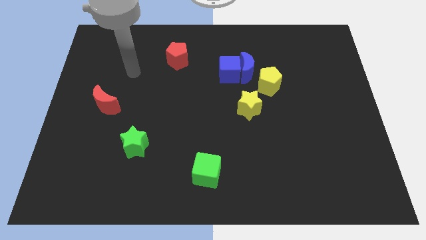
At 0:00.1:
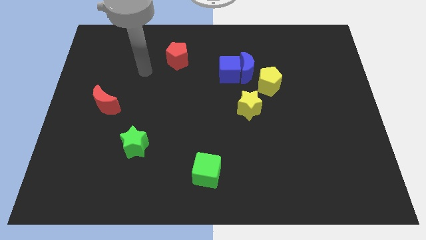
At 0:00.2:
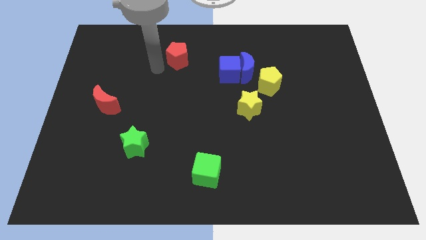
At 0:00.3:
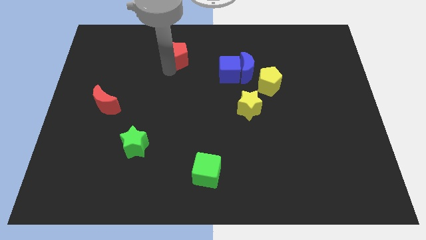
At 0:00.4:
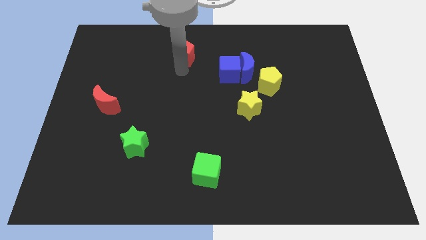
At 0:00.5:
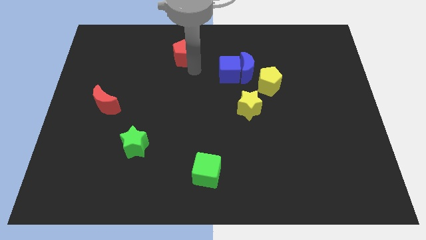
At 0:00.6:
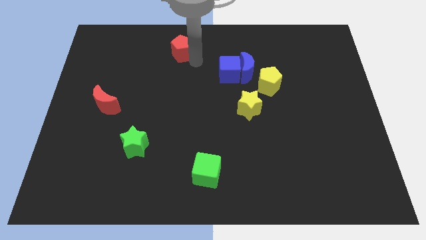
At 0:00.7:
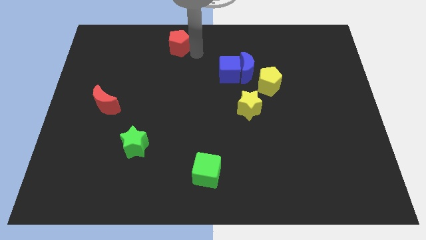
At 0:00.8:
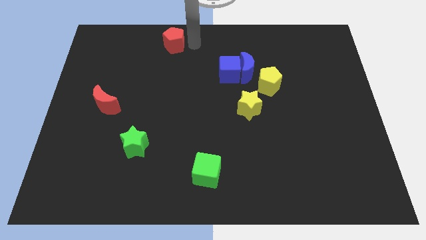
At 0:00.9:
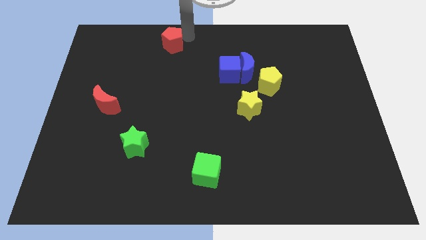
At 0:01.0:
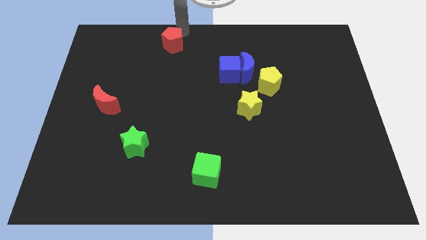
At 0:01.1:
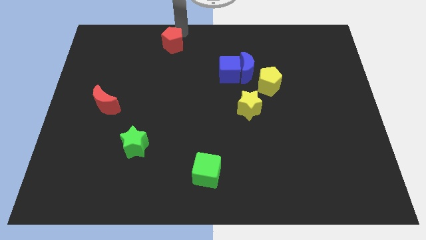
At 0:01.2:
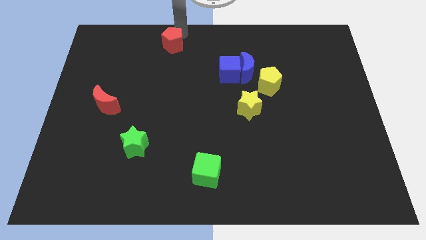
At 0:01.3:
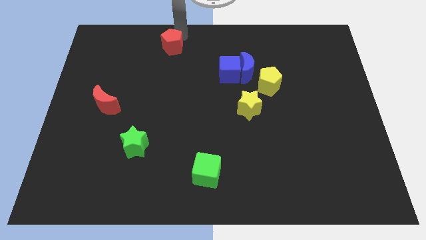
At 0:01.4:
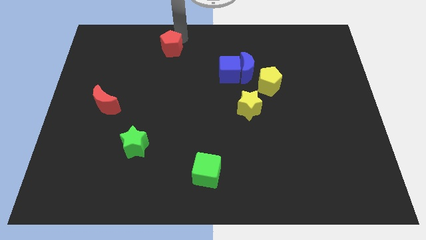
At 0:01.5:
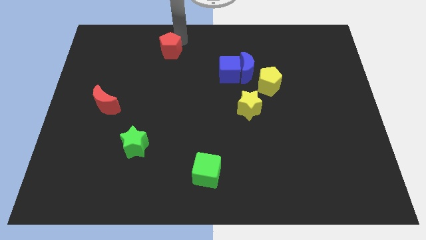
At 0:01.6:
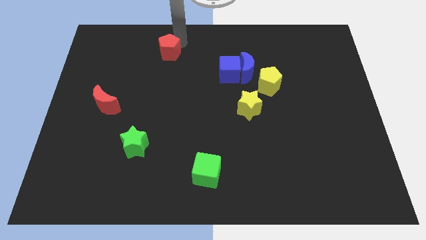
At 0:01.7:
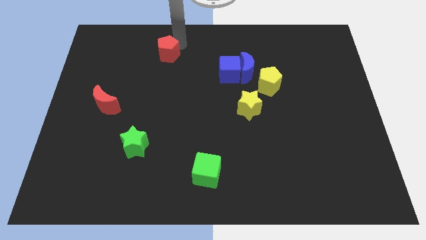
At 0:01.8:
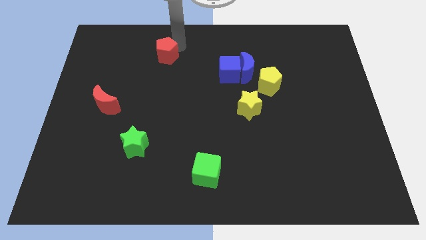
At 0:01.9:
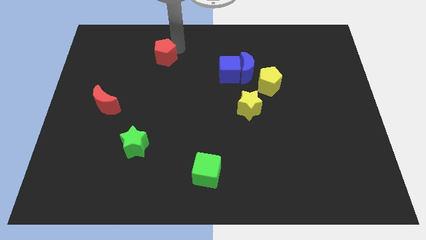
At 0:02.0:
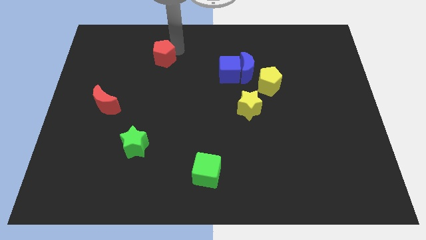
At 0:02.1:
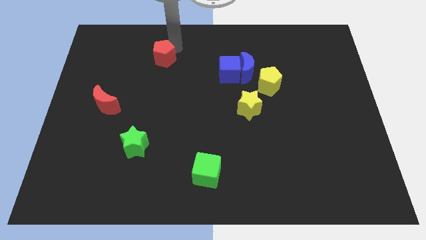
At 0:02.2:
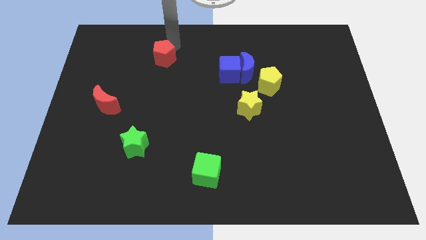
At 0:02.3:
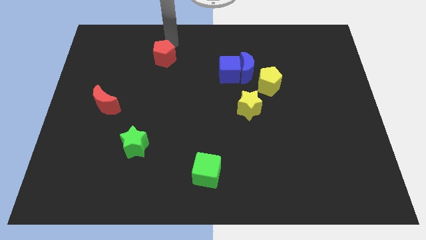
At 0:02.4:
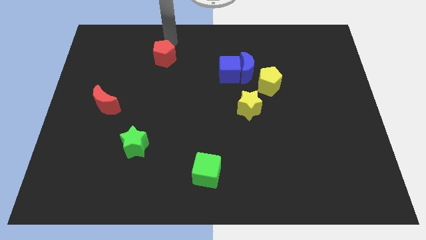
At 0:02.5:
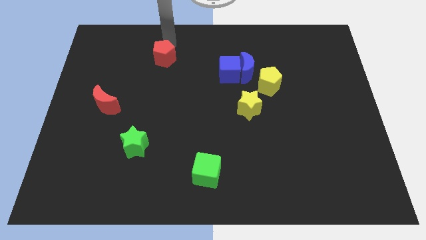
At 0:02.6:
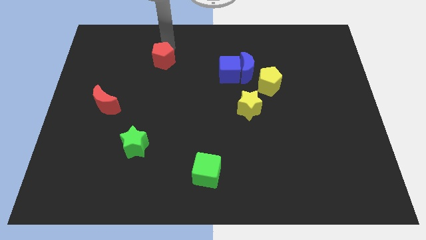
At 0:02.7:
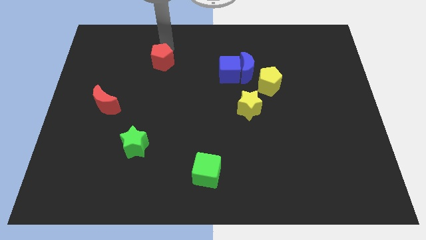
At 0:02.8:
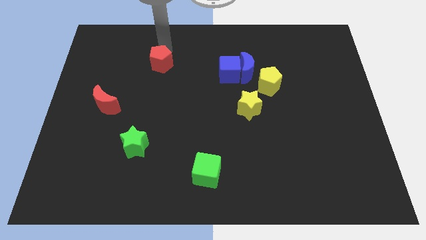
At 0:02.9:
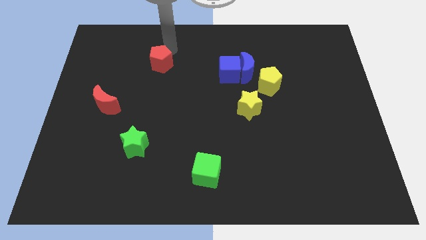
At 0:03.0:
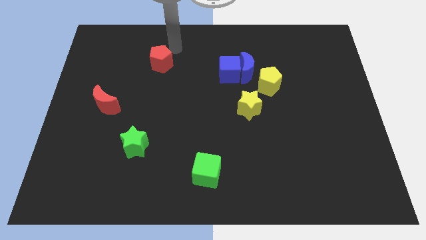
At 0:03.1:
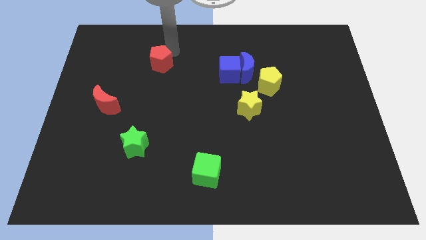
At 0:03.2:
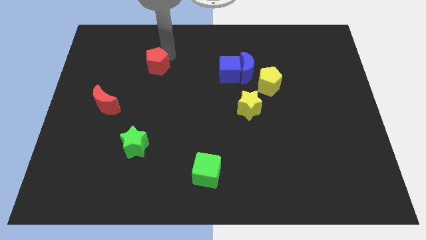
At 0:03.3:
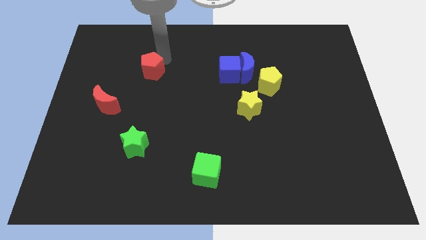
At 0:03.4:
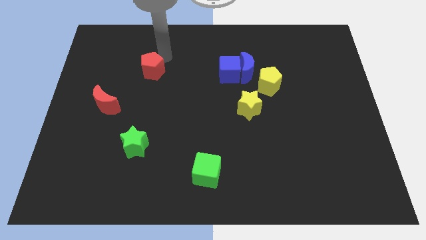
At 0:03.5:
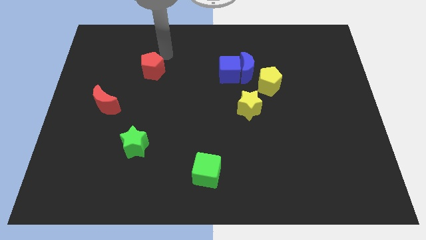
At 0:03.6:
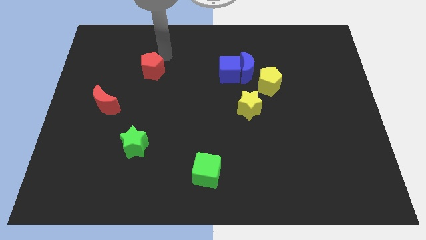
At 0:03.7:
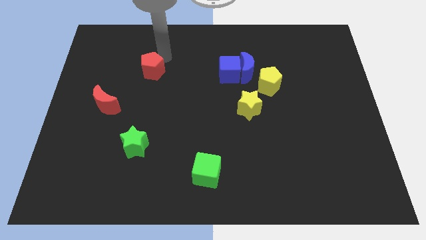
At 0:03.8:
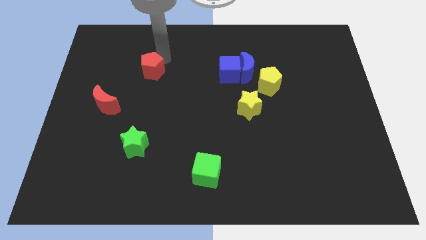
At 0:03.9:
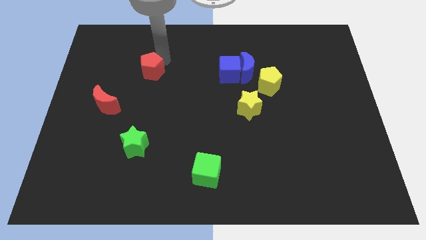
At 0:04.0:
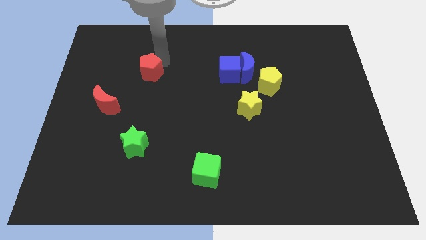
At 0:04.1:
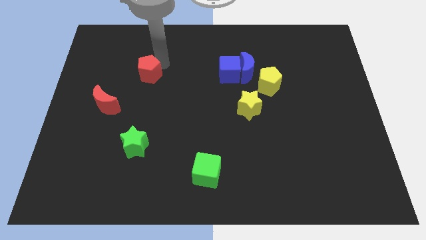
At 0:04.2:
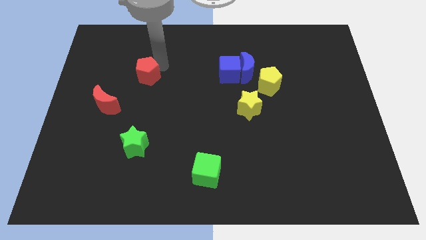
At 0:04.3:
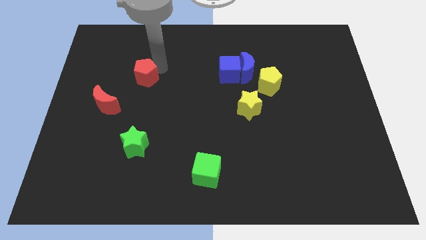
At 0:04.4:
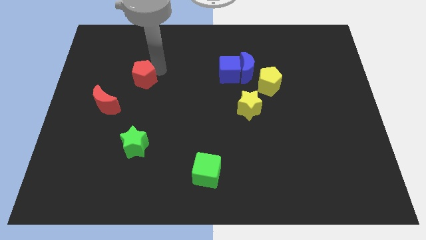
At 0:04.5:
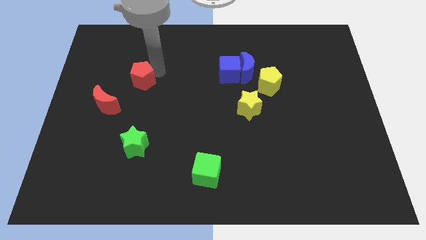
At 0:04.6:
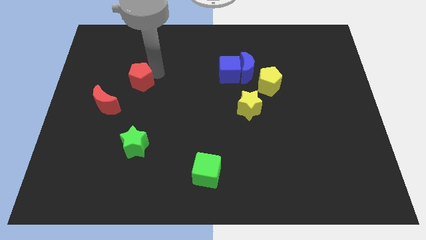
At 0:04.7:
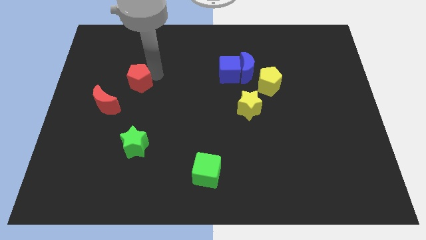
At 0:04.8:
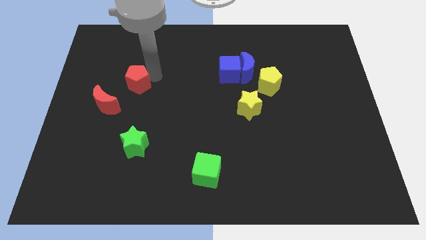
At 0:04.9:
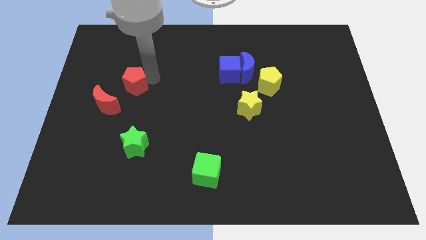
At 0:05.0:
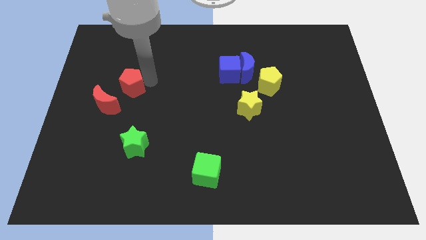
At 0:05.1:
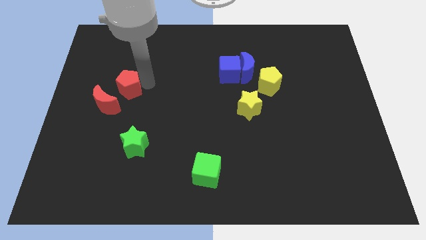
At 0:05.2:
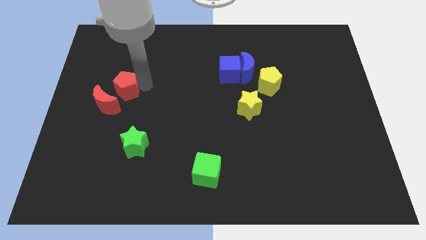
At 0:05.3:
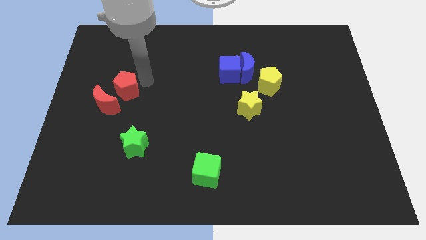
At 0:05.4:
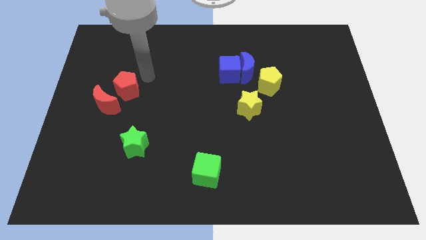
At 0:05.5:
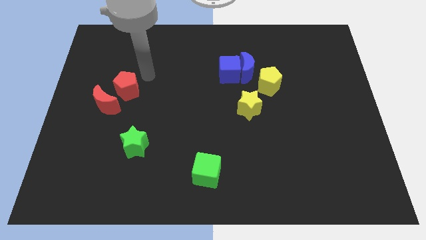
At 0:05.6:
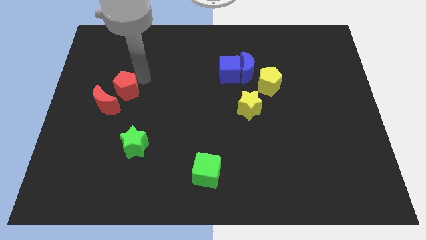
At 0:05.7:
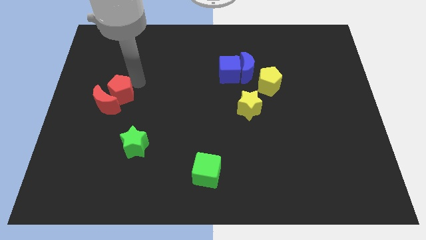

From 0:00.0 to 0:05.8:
push the red pentagon close to the red moon

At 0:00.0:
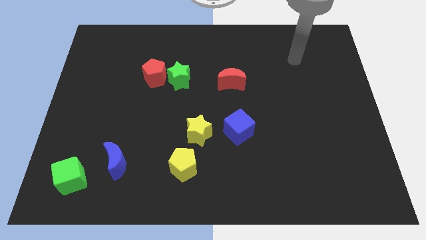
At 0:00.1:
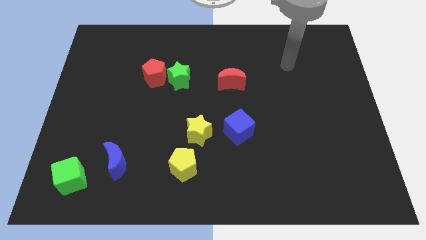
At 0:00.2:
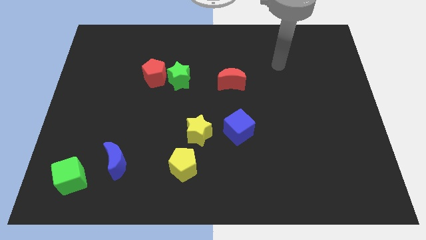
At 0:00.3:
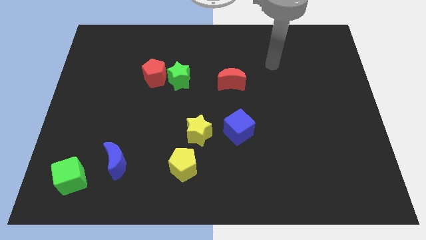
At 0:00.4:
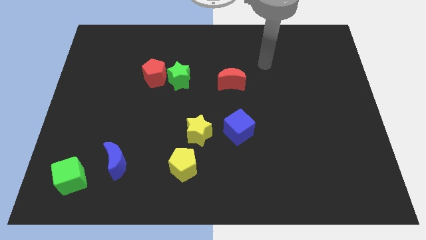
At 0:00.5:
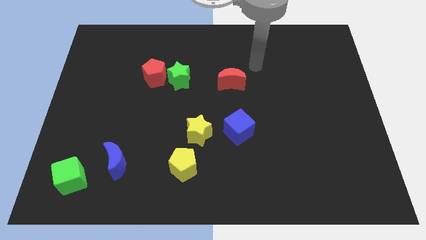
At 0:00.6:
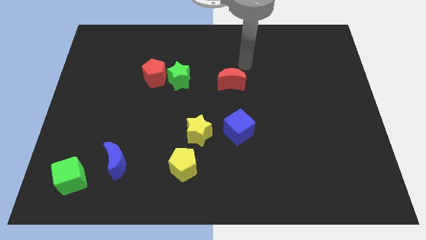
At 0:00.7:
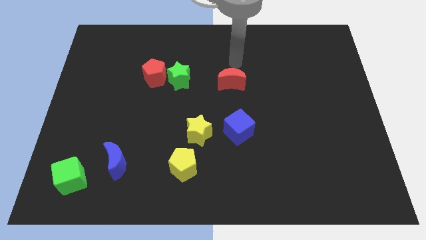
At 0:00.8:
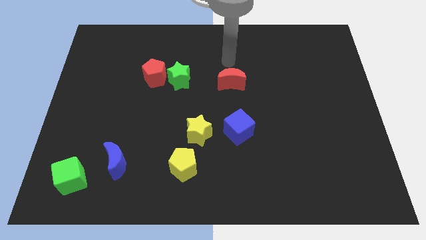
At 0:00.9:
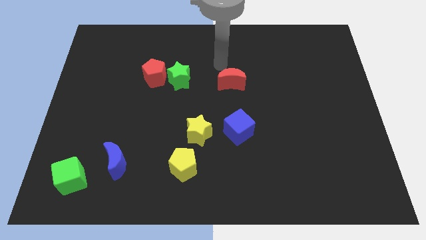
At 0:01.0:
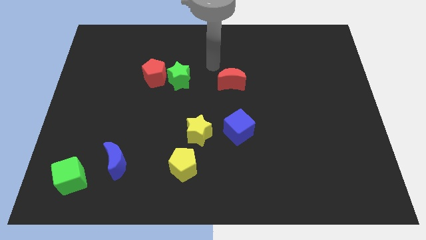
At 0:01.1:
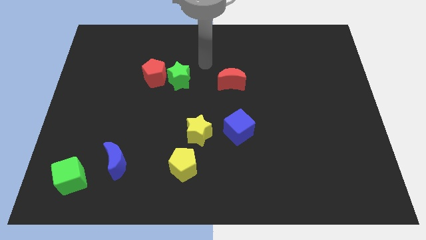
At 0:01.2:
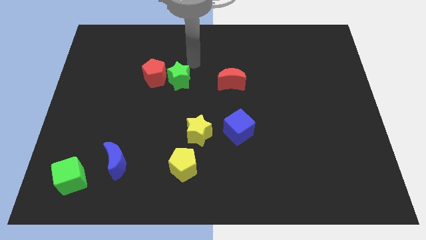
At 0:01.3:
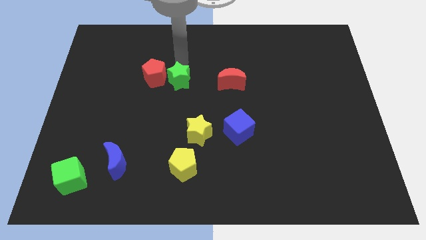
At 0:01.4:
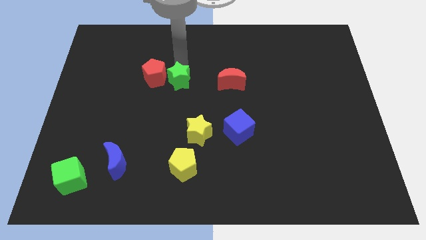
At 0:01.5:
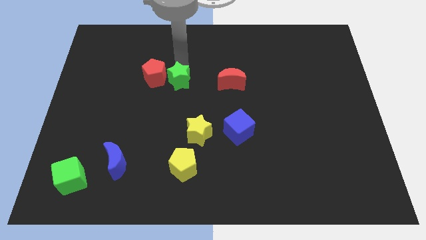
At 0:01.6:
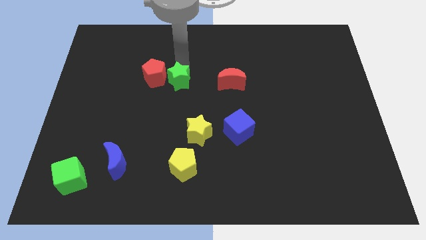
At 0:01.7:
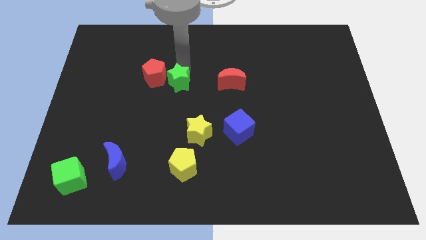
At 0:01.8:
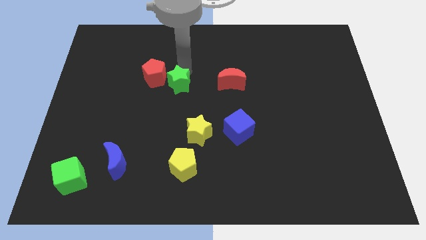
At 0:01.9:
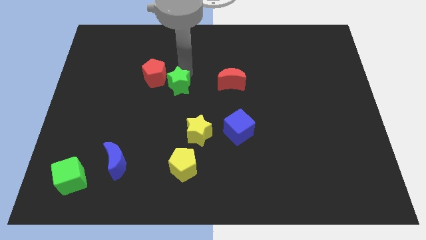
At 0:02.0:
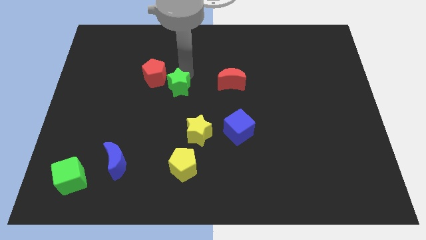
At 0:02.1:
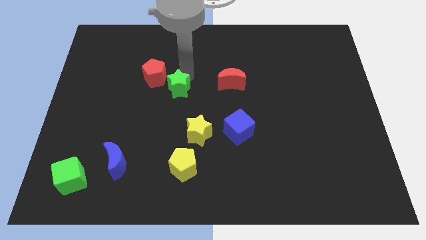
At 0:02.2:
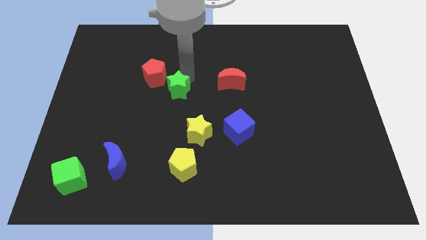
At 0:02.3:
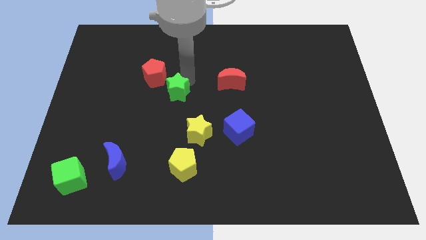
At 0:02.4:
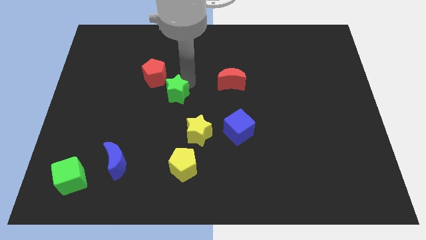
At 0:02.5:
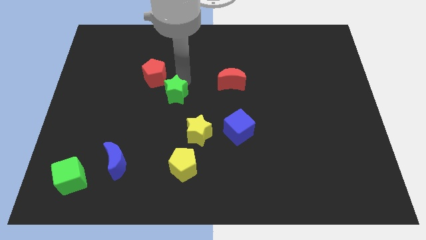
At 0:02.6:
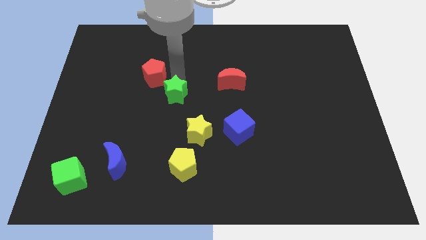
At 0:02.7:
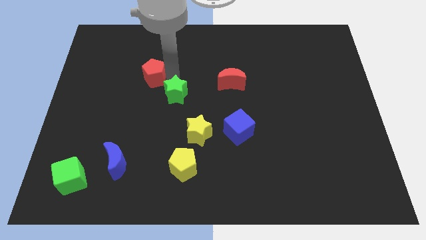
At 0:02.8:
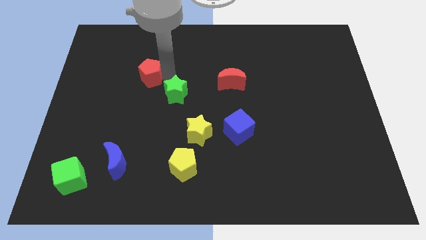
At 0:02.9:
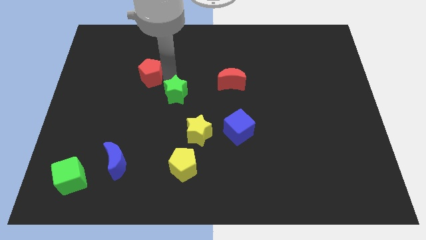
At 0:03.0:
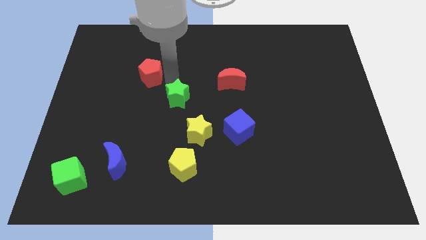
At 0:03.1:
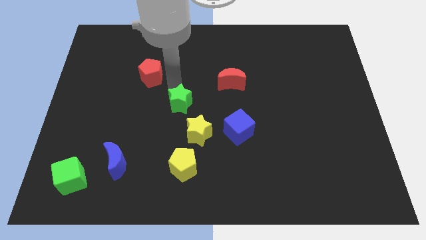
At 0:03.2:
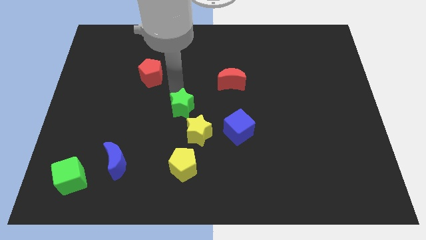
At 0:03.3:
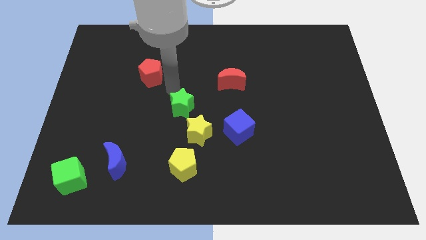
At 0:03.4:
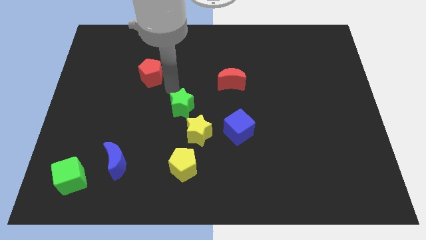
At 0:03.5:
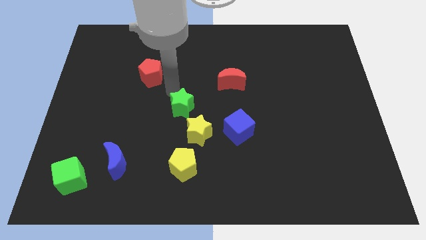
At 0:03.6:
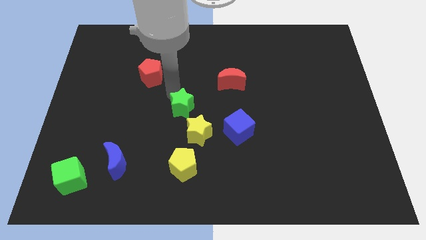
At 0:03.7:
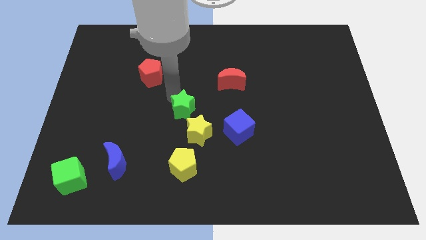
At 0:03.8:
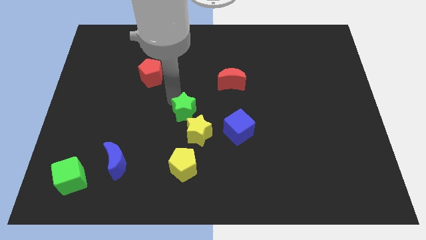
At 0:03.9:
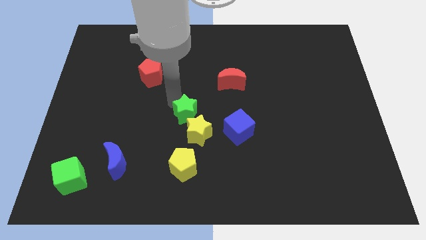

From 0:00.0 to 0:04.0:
move the green star close to the yellow star
